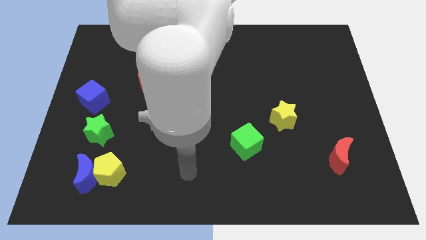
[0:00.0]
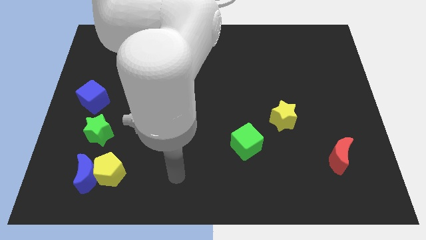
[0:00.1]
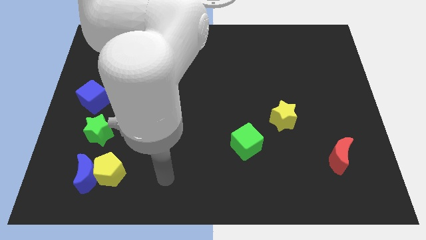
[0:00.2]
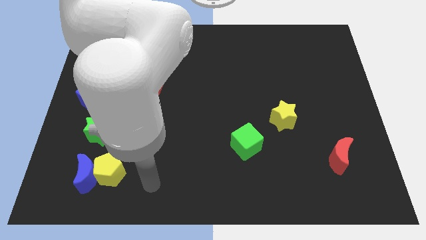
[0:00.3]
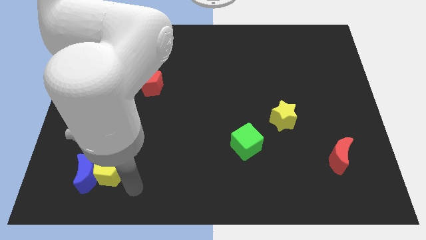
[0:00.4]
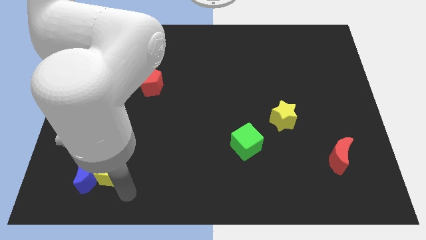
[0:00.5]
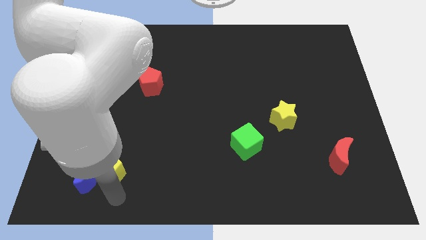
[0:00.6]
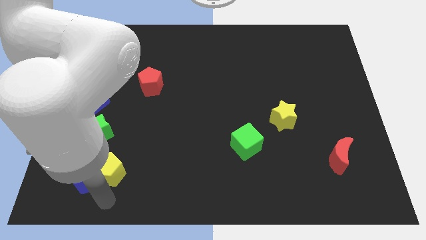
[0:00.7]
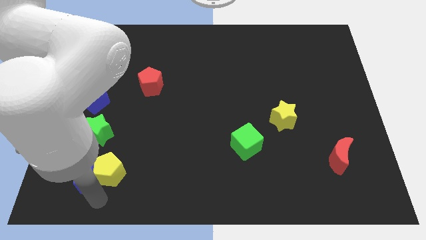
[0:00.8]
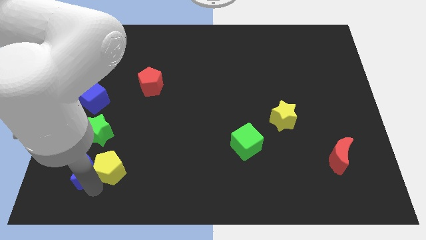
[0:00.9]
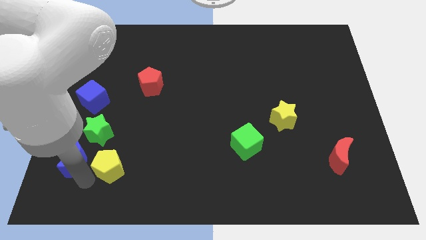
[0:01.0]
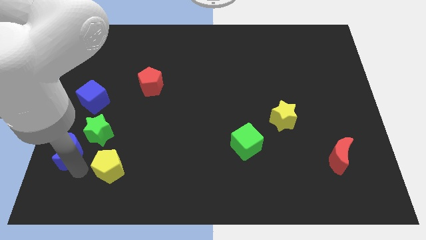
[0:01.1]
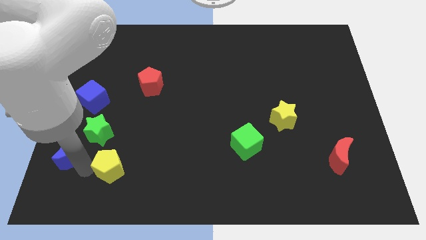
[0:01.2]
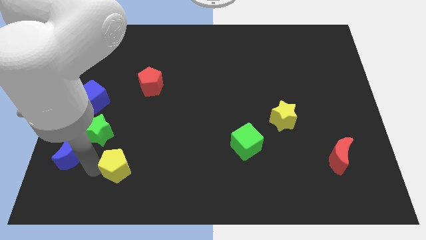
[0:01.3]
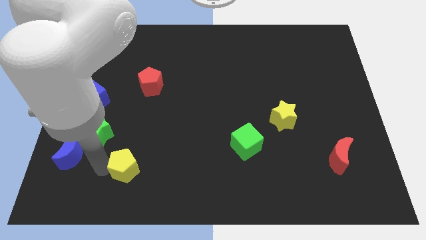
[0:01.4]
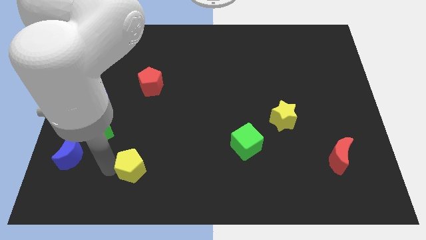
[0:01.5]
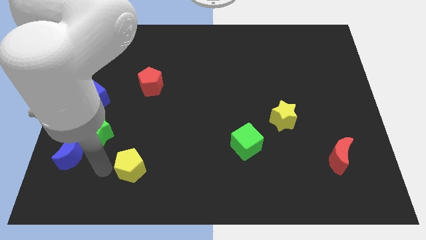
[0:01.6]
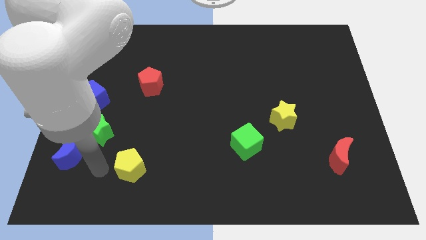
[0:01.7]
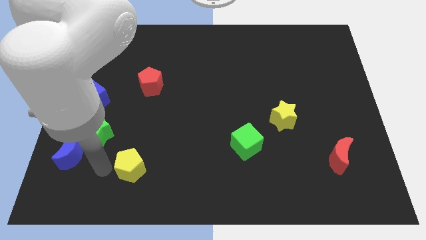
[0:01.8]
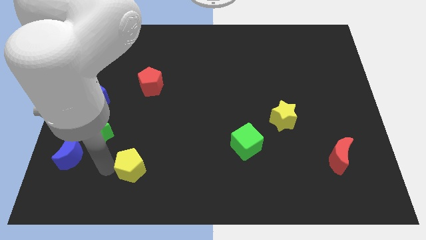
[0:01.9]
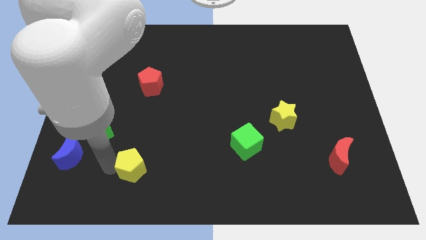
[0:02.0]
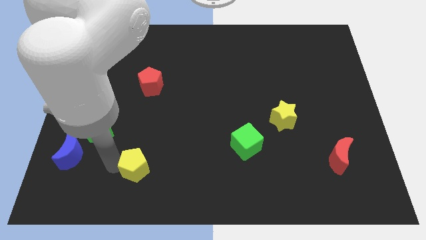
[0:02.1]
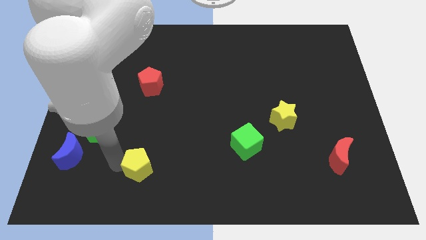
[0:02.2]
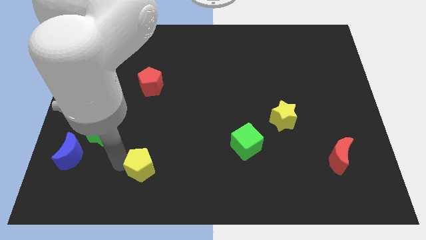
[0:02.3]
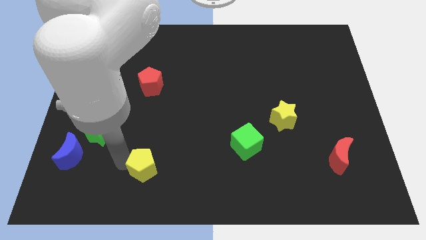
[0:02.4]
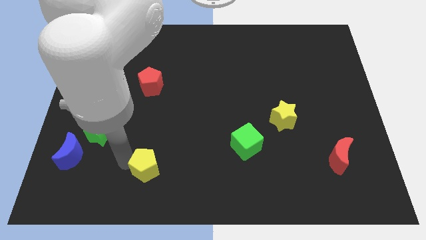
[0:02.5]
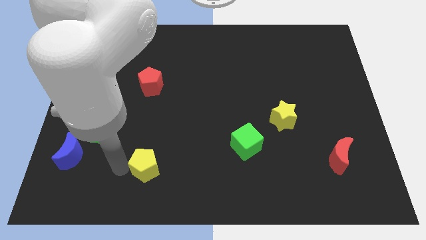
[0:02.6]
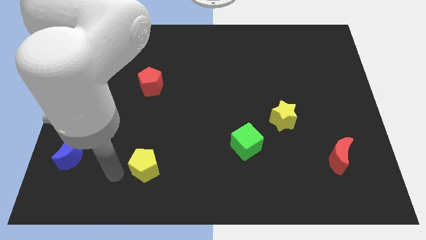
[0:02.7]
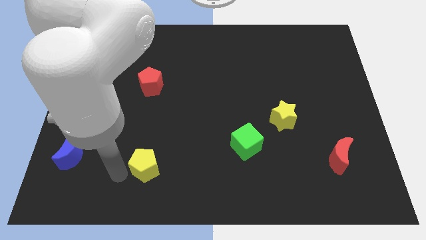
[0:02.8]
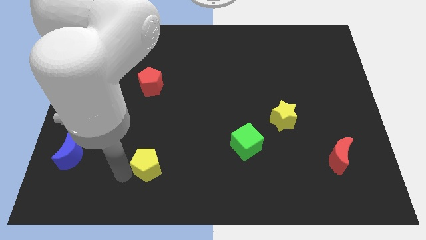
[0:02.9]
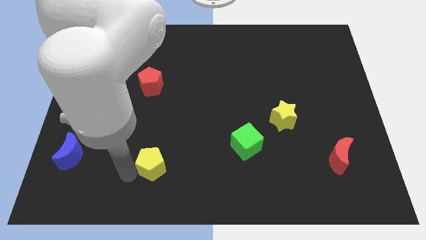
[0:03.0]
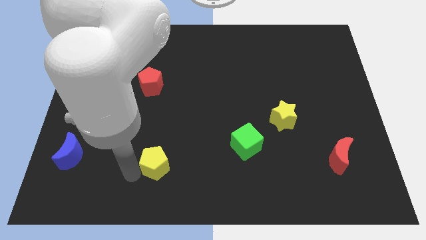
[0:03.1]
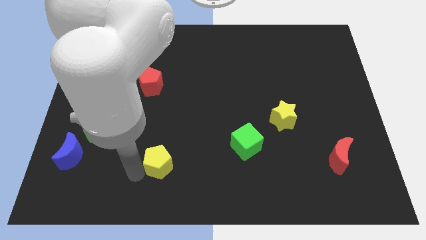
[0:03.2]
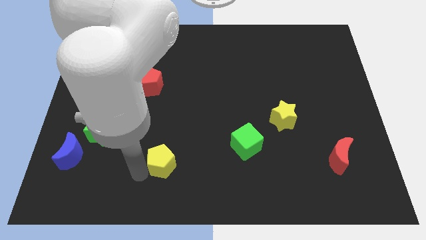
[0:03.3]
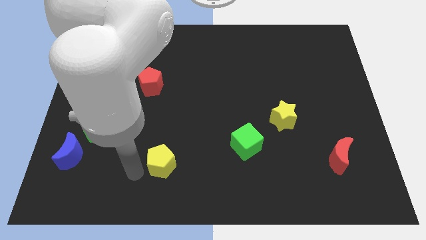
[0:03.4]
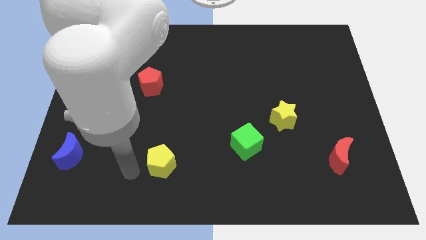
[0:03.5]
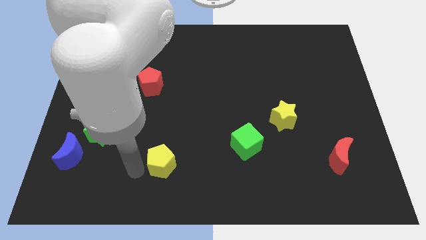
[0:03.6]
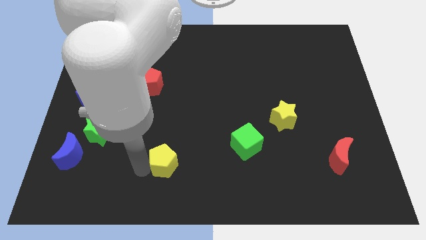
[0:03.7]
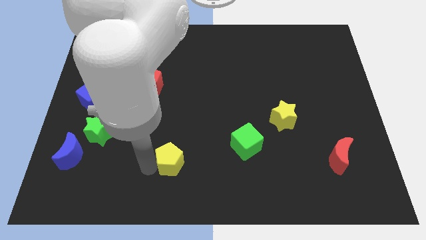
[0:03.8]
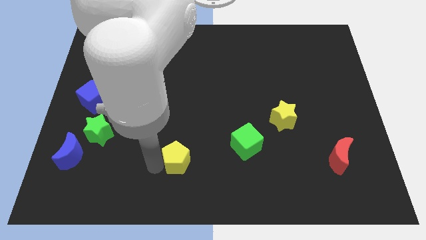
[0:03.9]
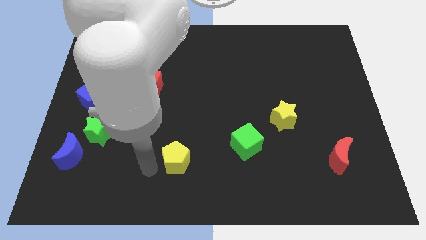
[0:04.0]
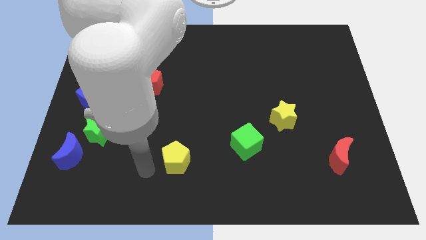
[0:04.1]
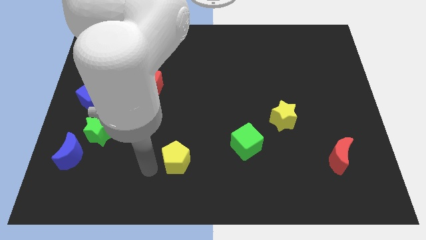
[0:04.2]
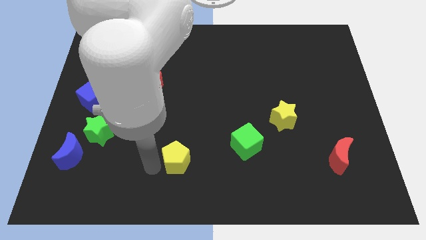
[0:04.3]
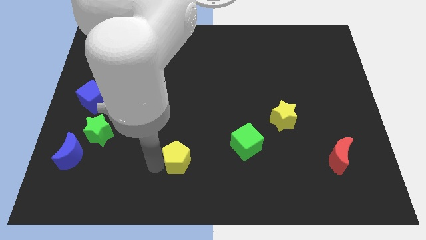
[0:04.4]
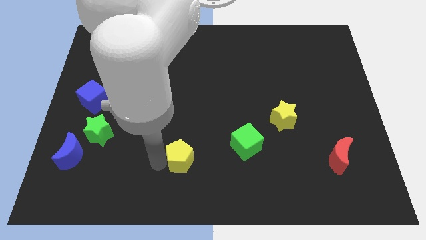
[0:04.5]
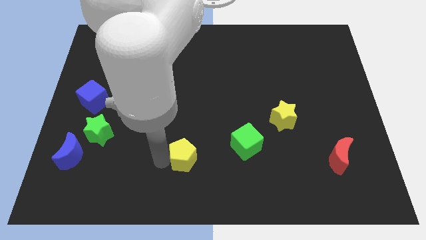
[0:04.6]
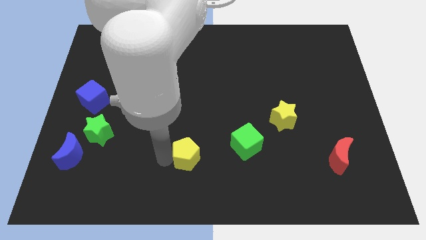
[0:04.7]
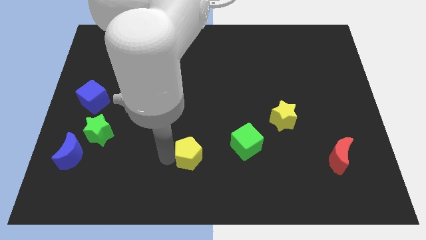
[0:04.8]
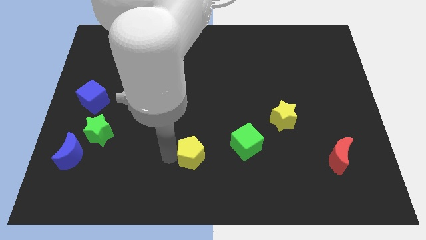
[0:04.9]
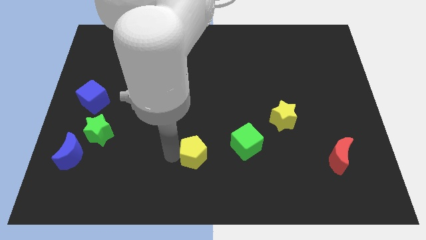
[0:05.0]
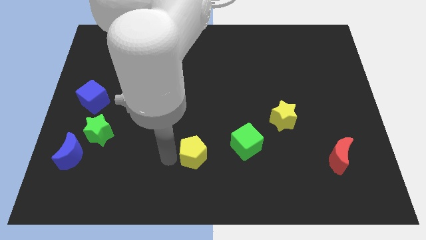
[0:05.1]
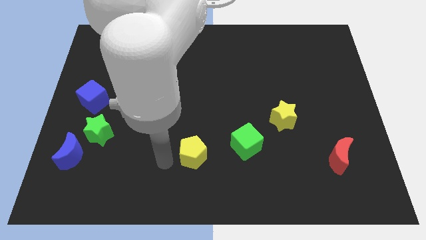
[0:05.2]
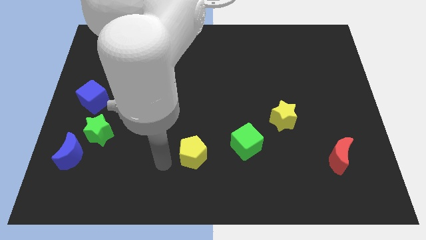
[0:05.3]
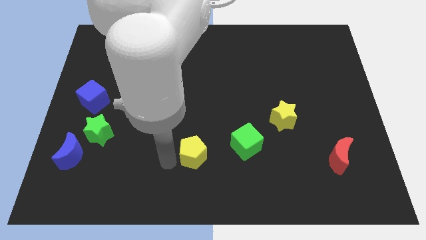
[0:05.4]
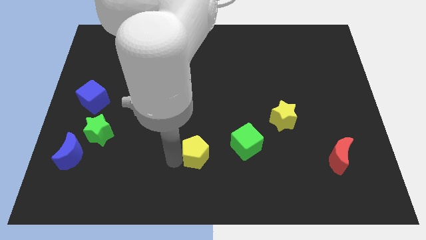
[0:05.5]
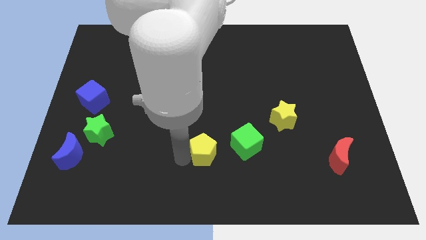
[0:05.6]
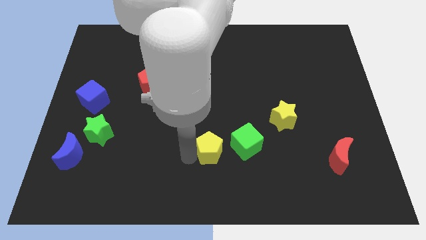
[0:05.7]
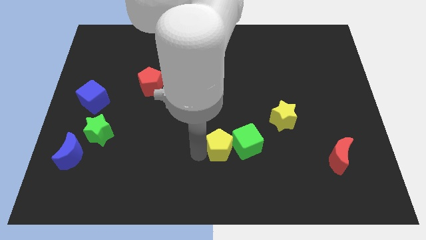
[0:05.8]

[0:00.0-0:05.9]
put the yellow pentagon to the green cube

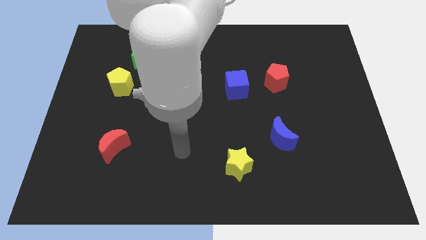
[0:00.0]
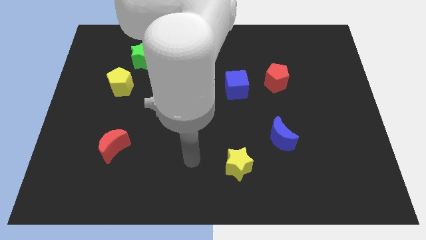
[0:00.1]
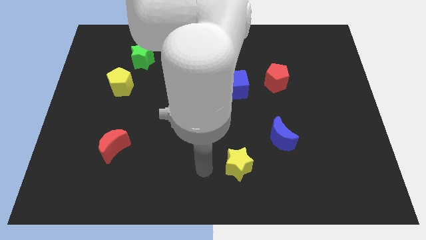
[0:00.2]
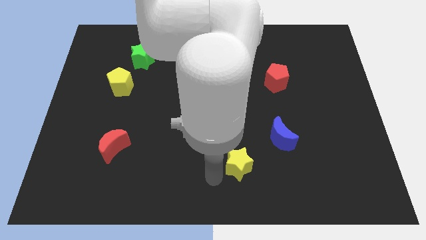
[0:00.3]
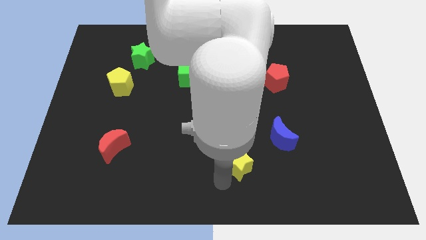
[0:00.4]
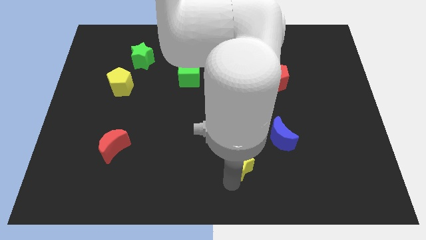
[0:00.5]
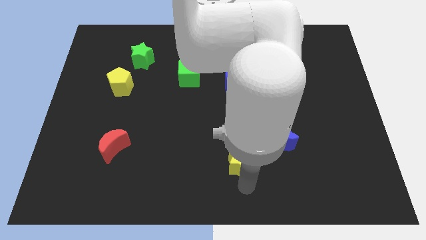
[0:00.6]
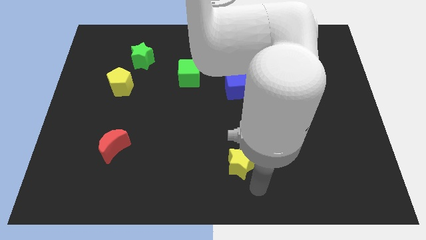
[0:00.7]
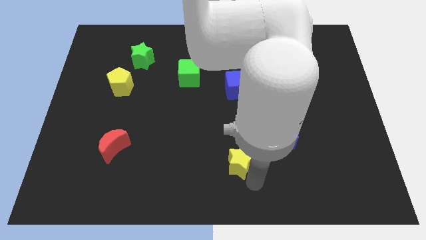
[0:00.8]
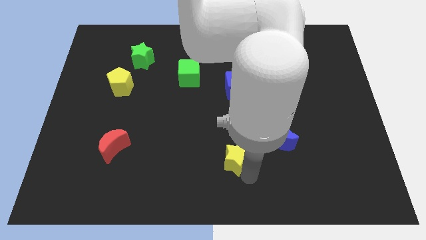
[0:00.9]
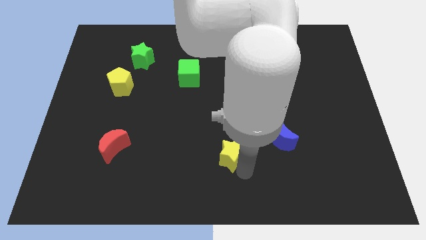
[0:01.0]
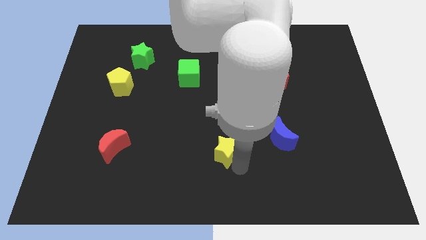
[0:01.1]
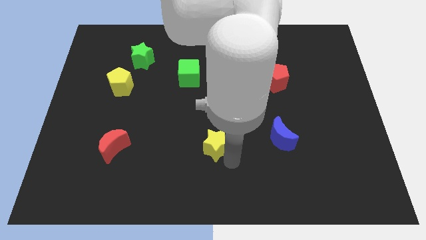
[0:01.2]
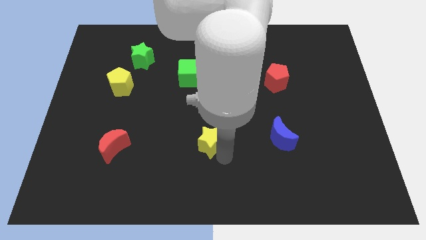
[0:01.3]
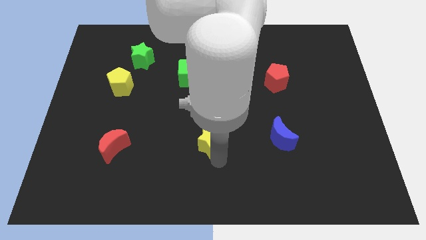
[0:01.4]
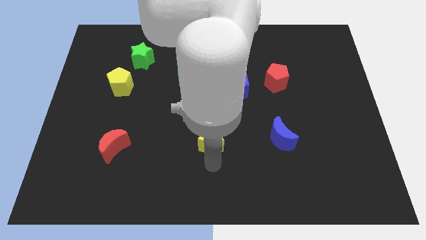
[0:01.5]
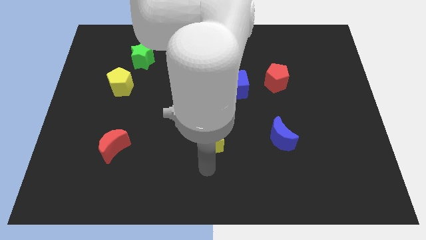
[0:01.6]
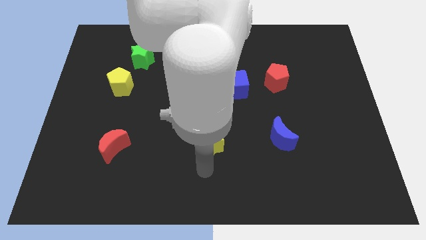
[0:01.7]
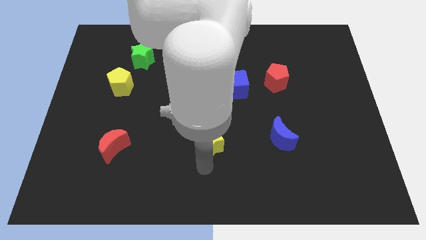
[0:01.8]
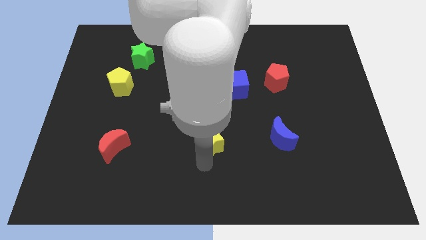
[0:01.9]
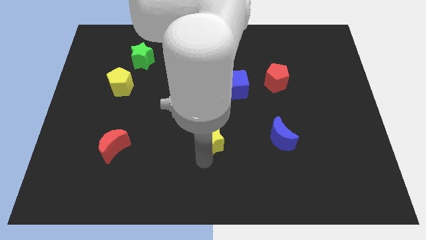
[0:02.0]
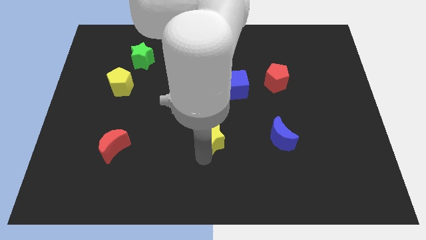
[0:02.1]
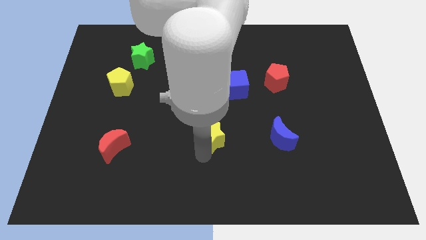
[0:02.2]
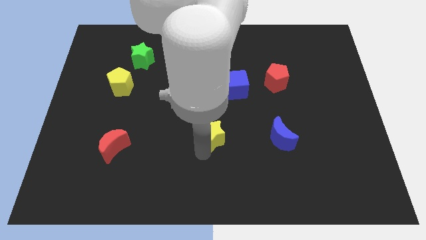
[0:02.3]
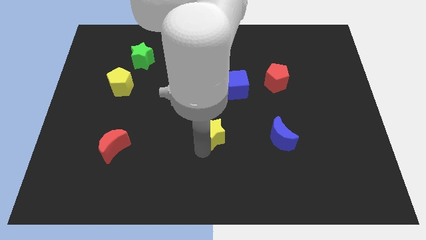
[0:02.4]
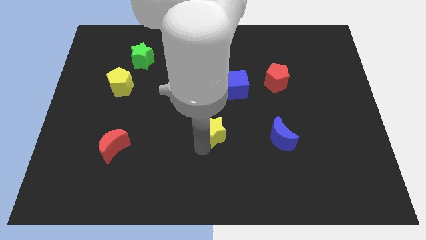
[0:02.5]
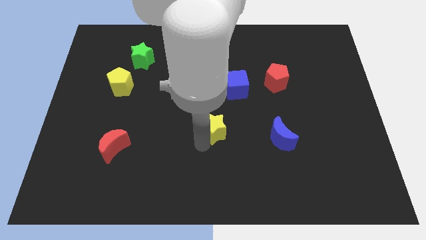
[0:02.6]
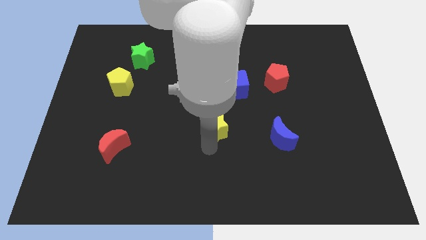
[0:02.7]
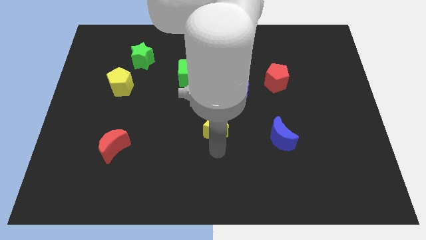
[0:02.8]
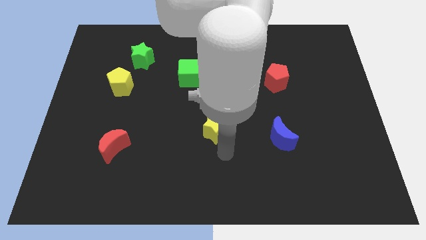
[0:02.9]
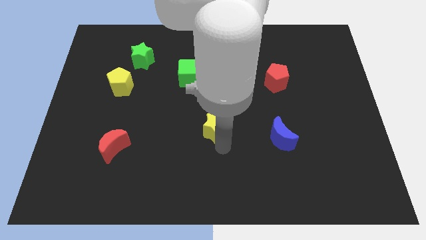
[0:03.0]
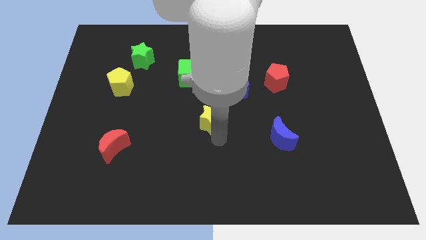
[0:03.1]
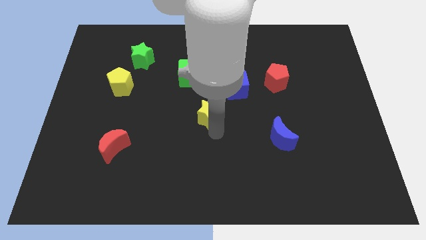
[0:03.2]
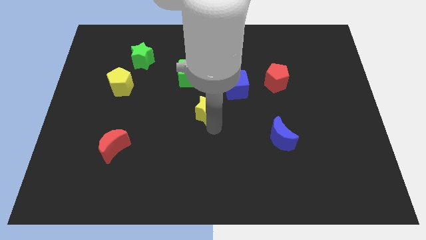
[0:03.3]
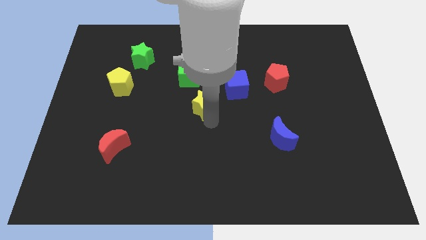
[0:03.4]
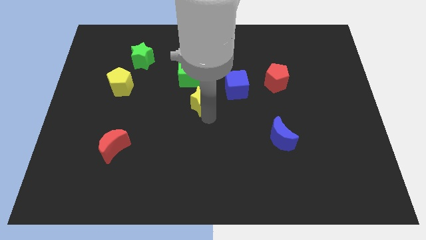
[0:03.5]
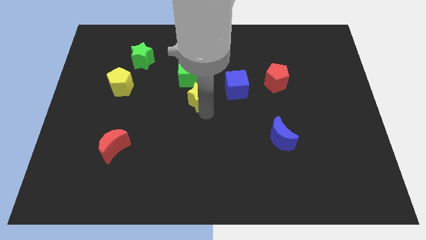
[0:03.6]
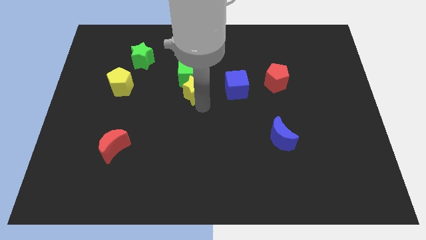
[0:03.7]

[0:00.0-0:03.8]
move the yellow star next to the green cube
